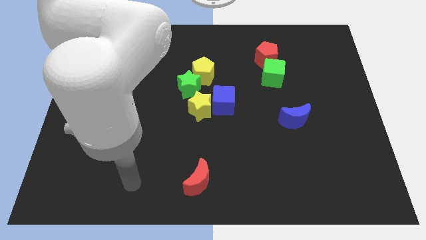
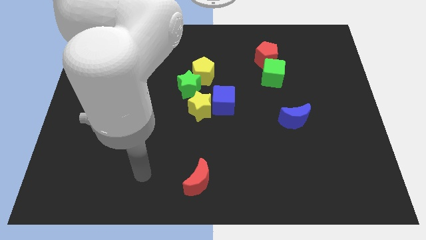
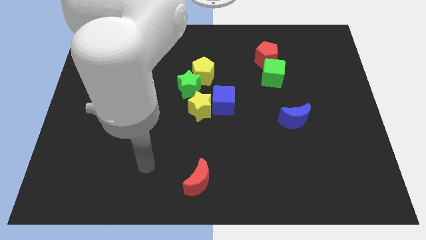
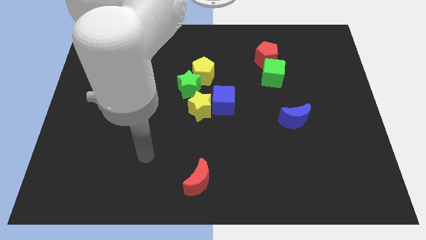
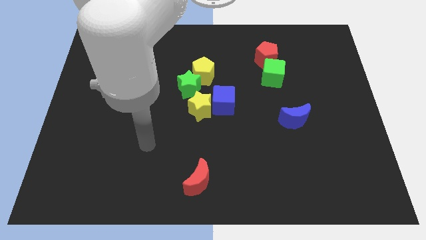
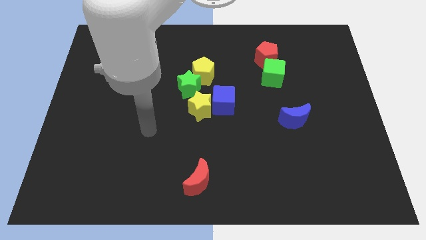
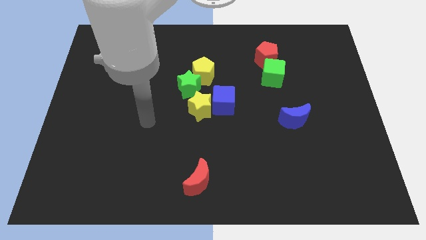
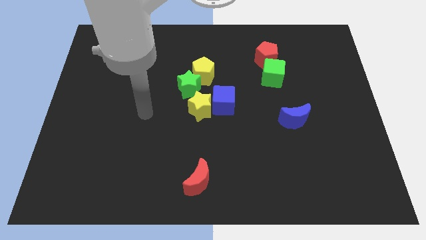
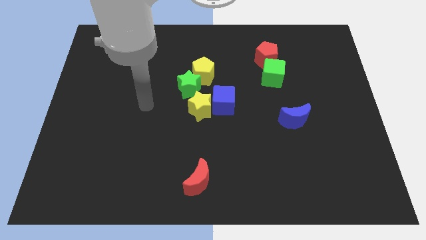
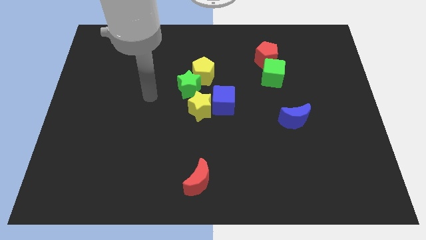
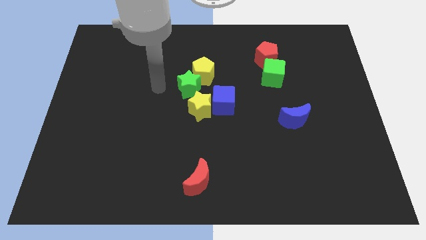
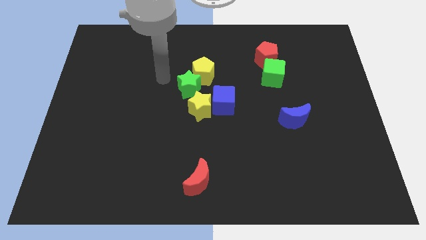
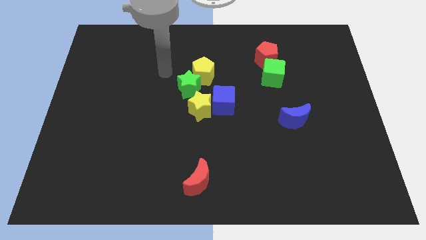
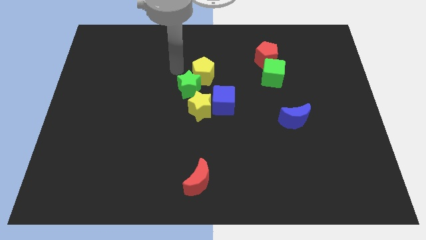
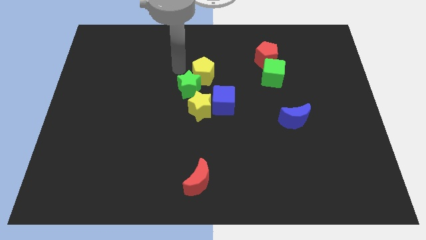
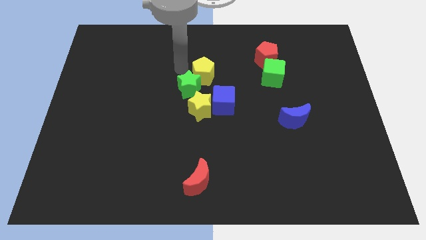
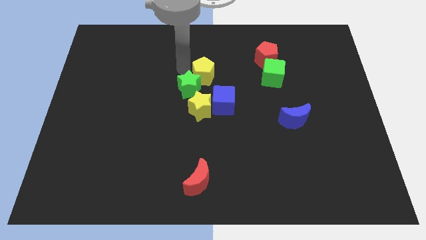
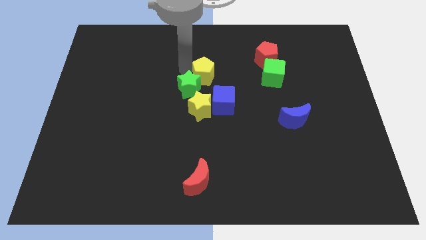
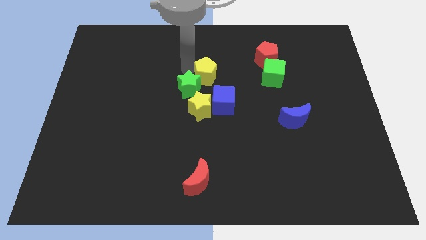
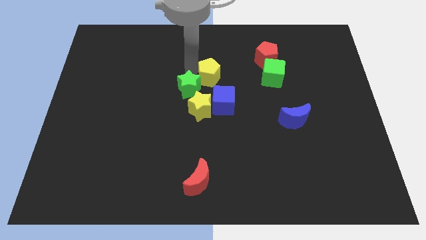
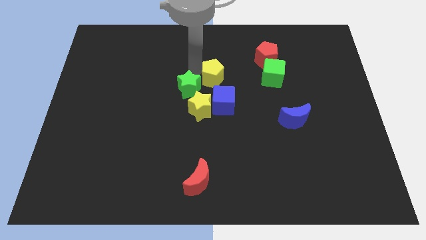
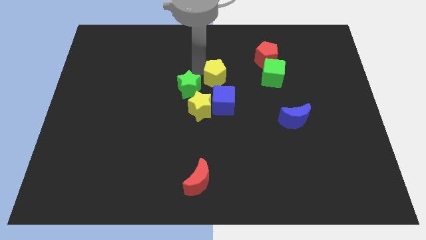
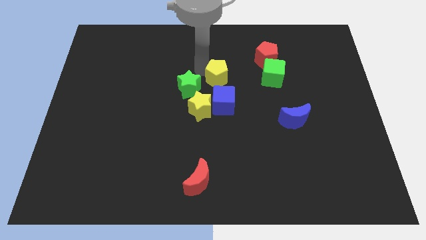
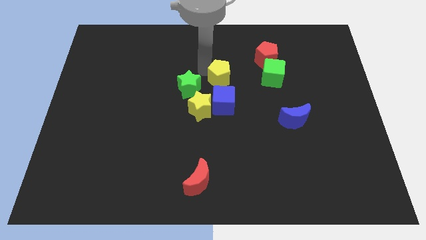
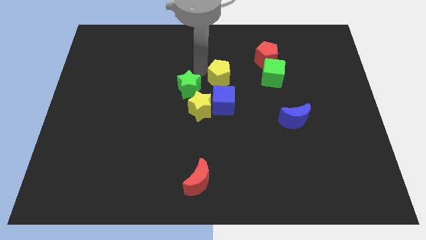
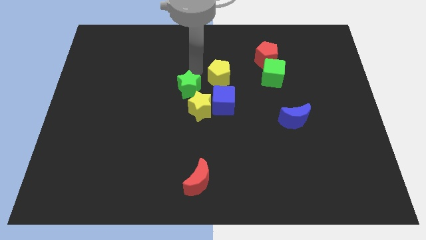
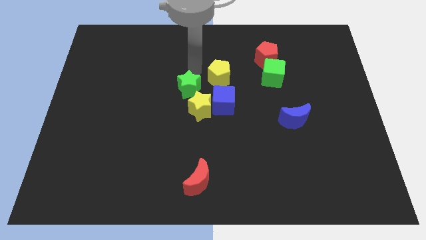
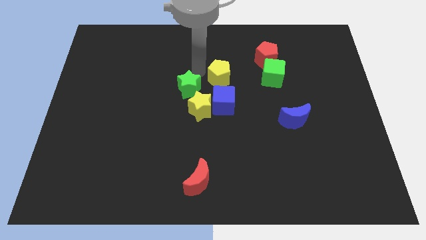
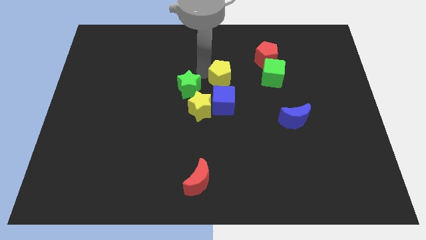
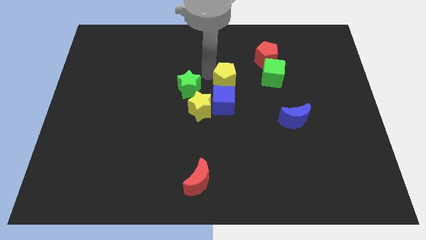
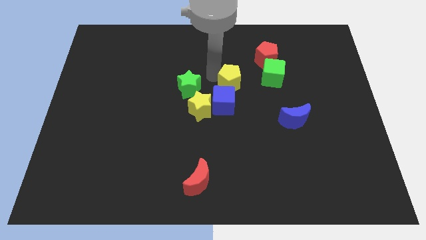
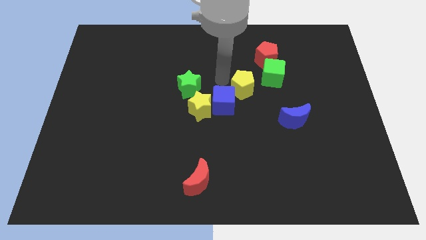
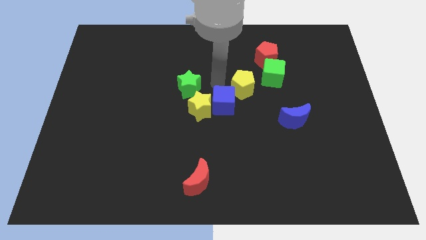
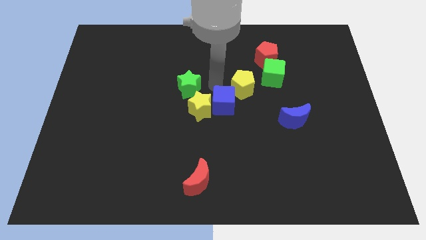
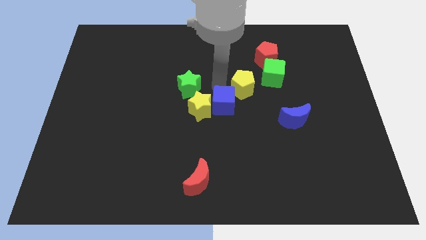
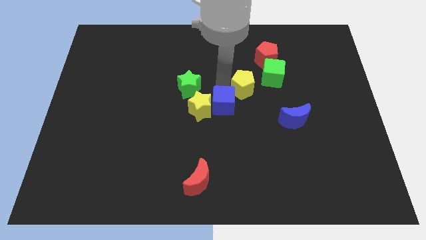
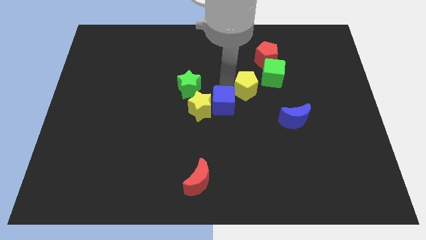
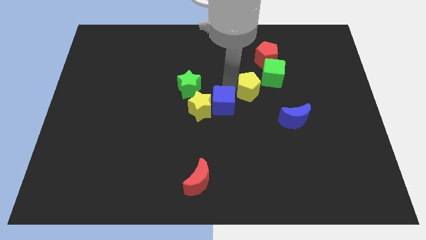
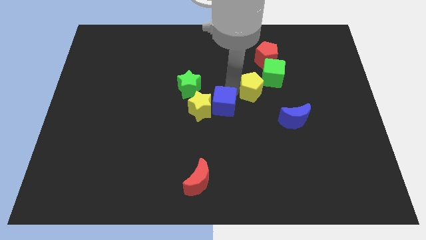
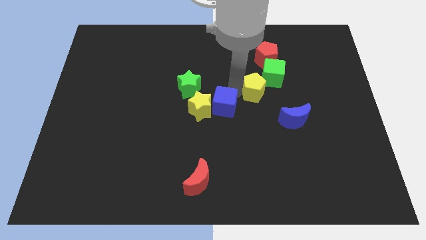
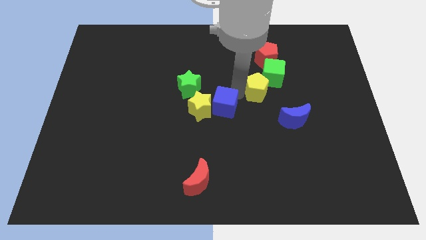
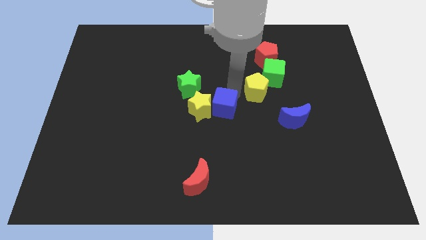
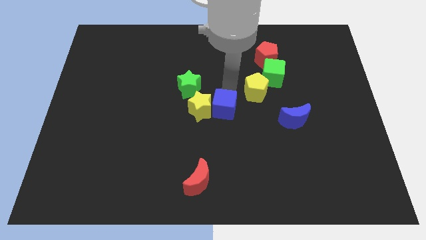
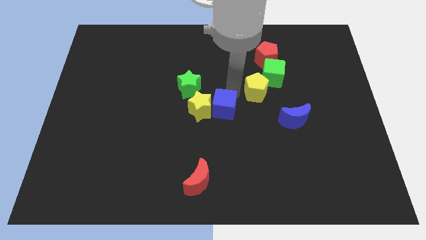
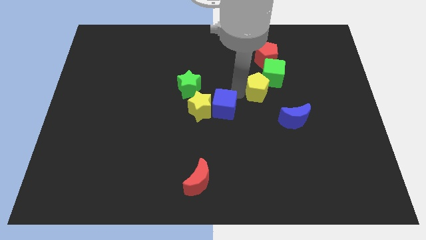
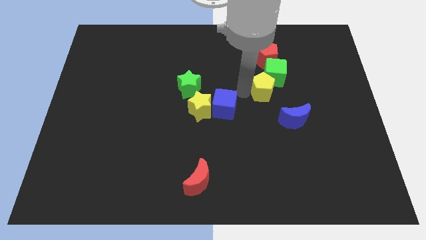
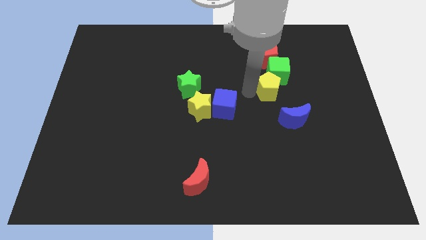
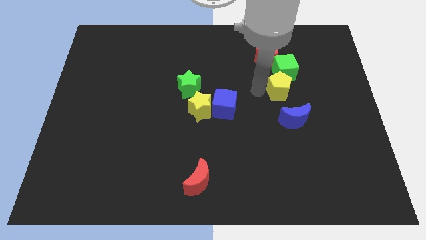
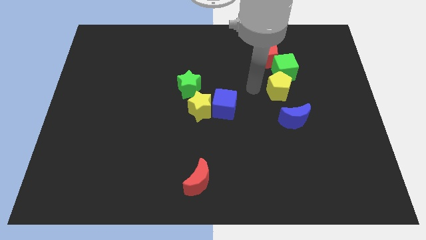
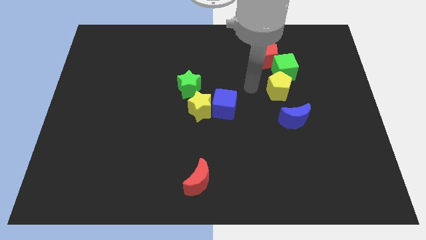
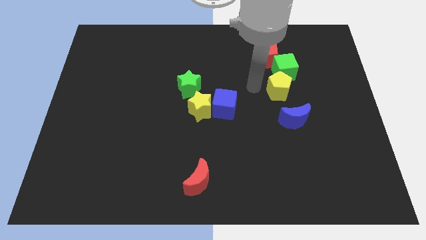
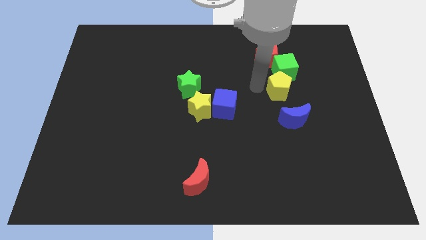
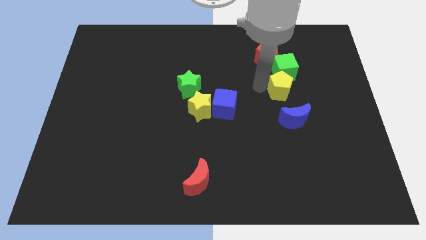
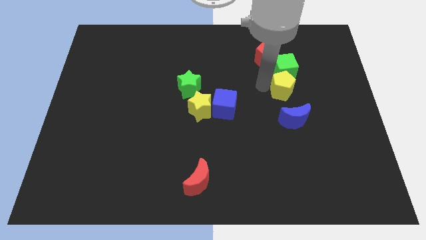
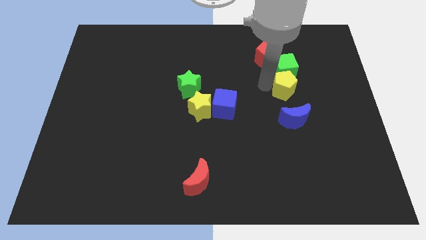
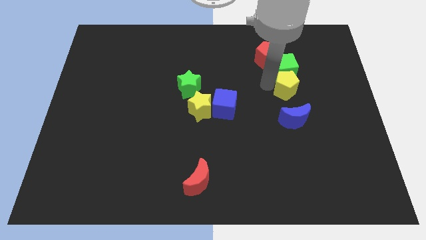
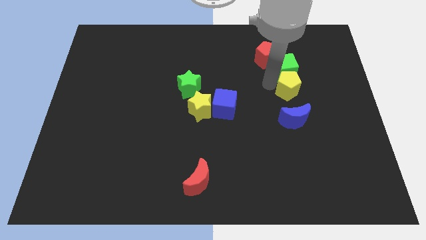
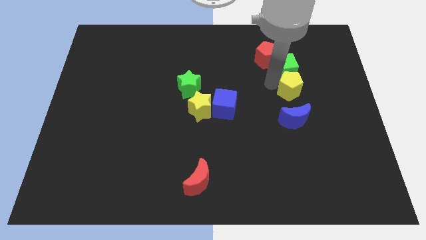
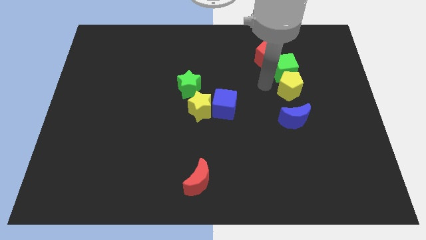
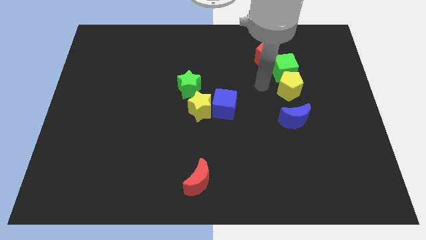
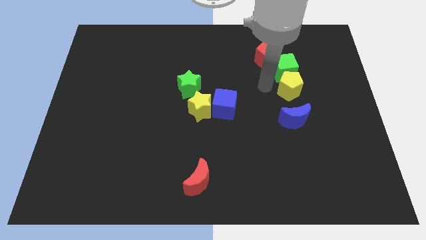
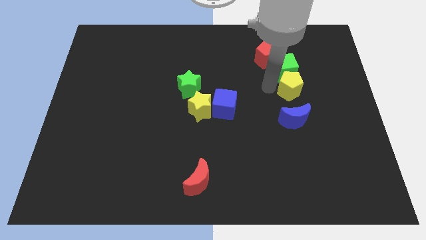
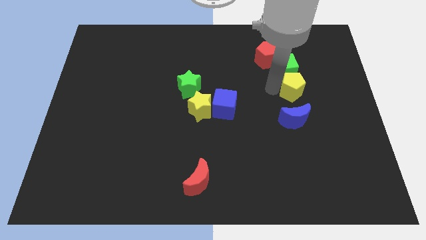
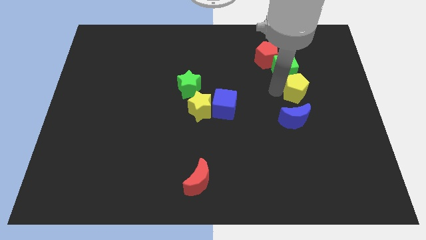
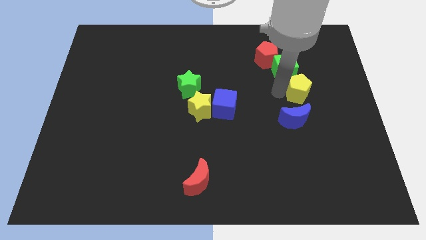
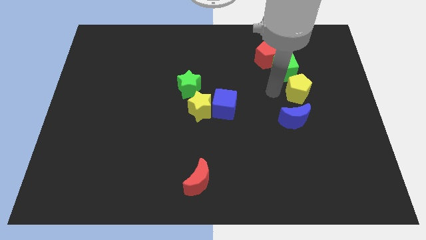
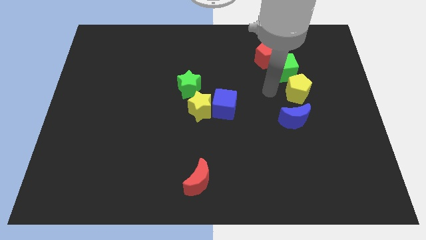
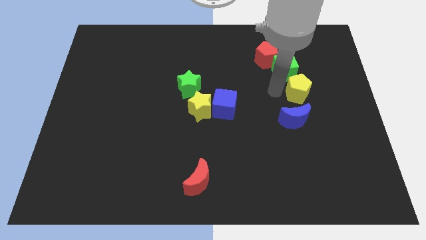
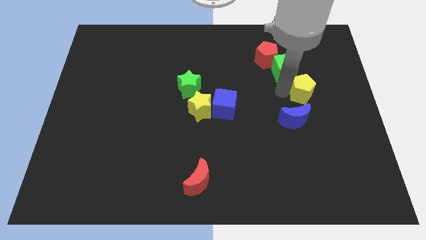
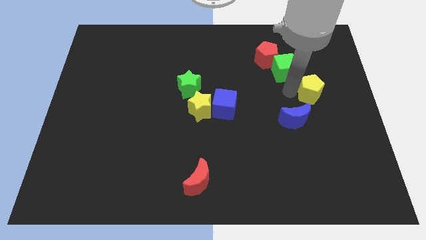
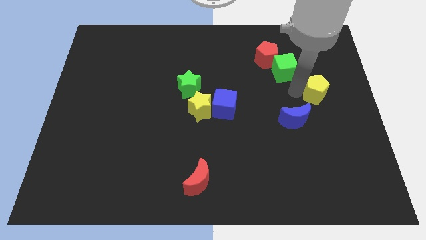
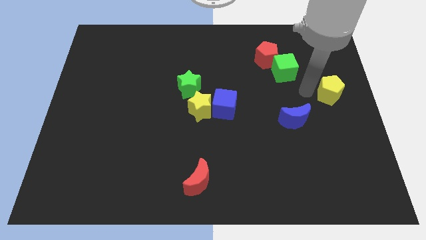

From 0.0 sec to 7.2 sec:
slide the yellow pentagon to the right side of the board
